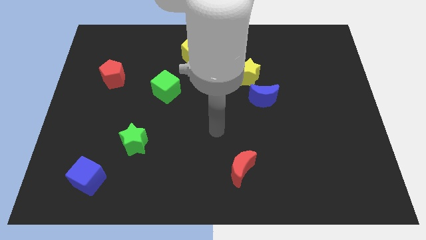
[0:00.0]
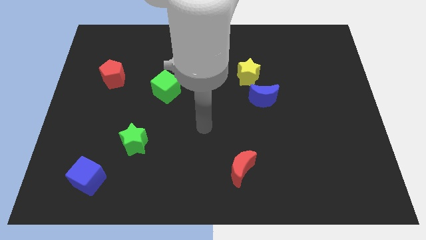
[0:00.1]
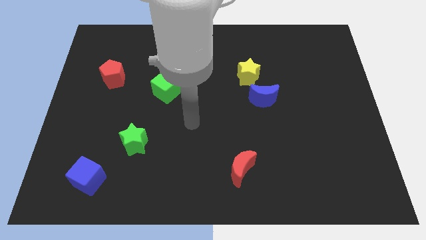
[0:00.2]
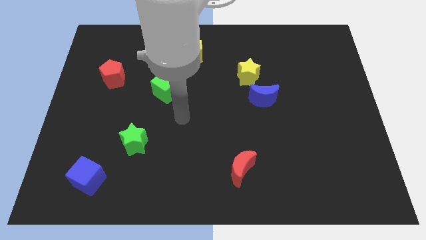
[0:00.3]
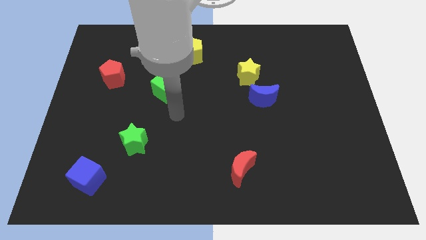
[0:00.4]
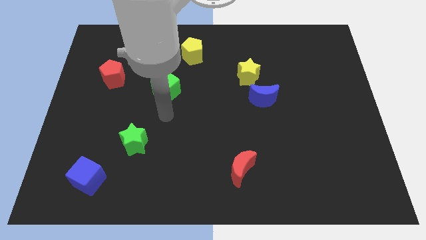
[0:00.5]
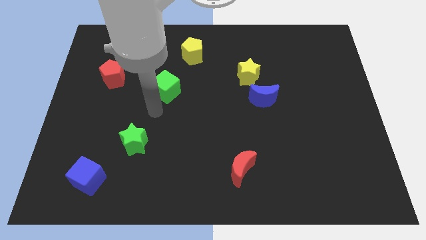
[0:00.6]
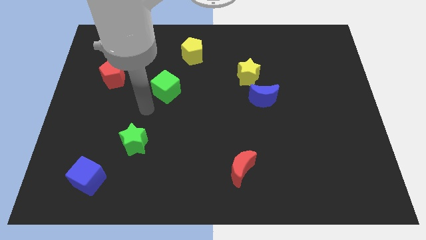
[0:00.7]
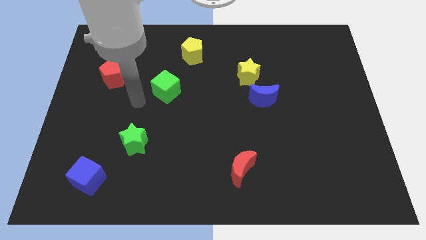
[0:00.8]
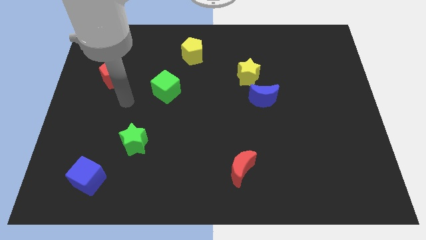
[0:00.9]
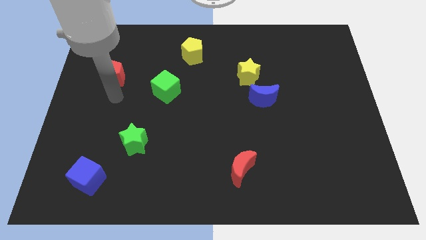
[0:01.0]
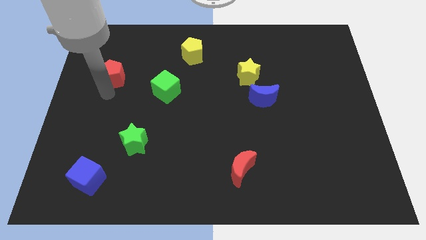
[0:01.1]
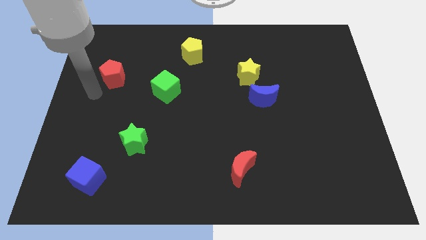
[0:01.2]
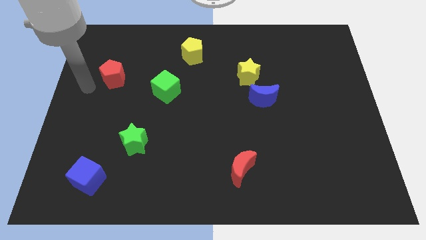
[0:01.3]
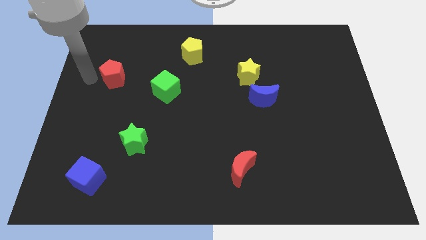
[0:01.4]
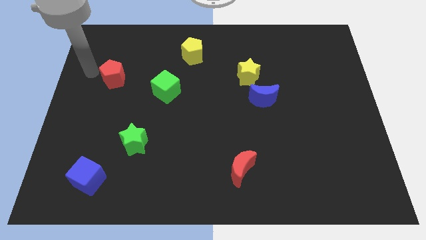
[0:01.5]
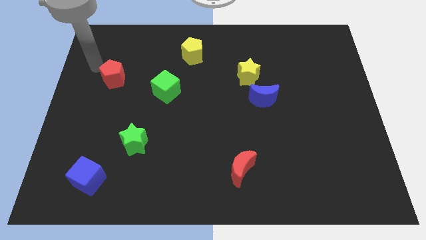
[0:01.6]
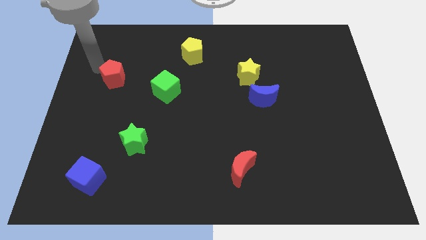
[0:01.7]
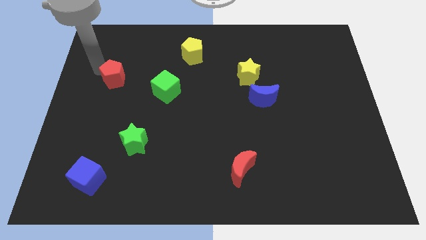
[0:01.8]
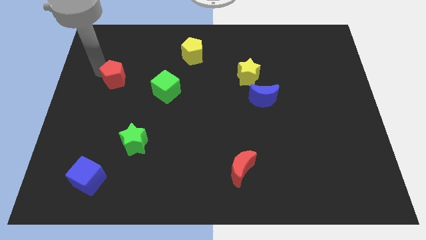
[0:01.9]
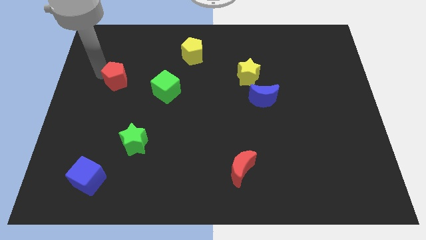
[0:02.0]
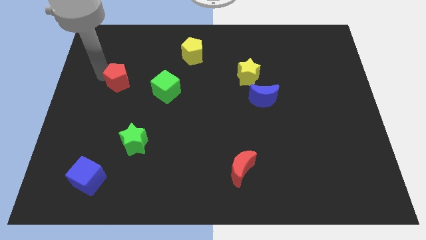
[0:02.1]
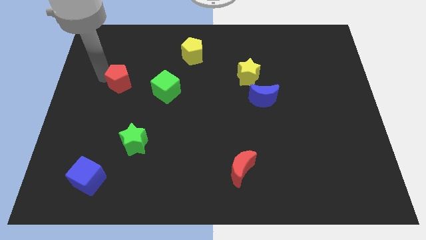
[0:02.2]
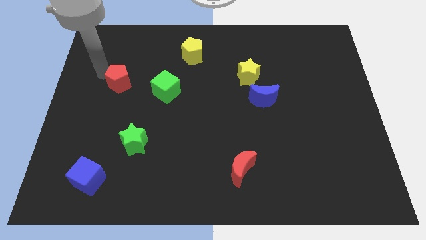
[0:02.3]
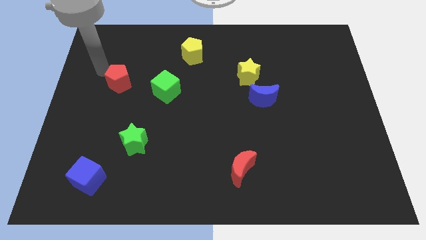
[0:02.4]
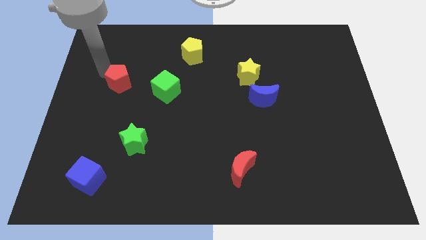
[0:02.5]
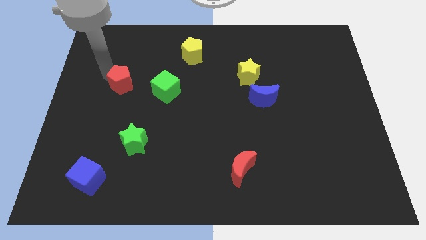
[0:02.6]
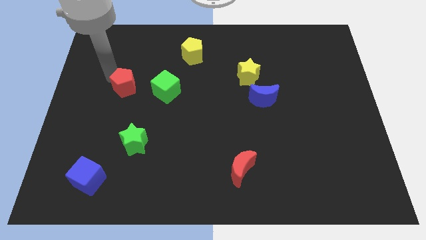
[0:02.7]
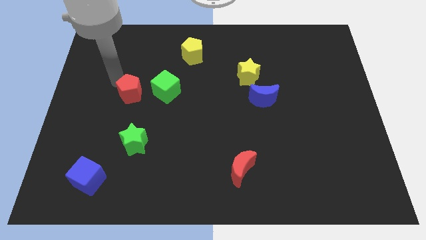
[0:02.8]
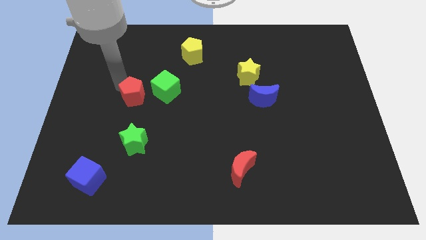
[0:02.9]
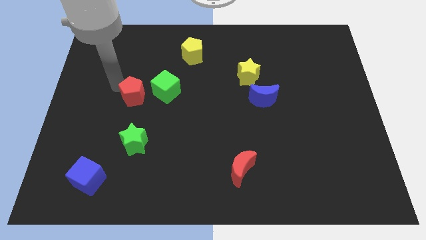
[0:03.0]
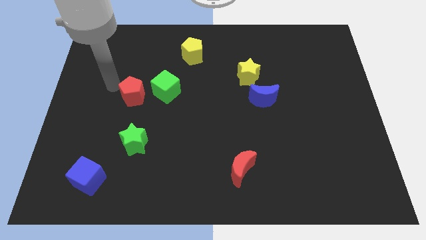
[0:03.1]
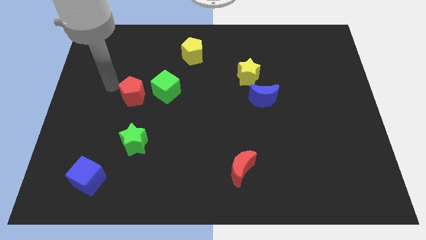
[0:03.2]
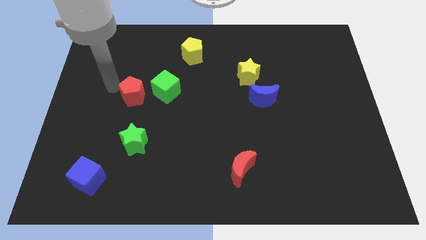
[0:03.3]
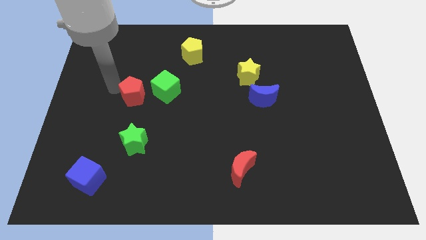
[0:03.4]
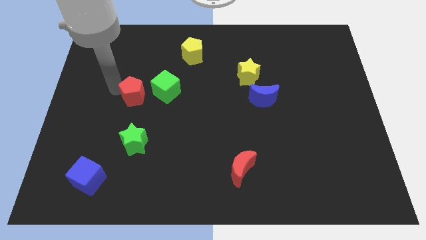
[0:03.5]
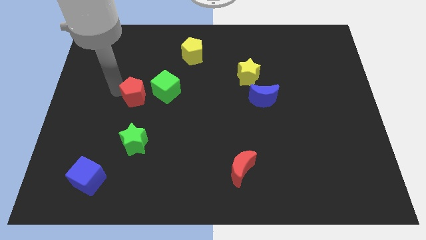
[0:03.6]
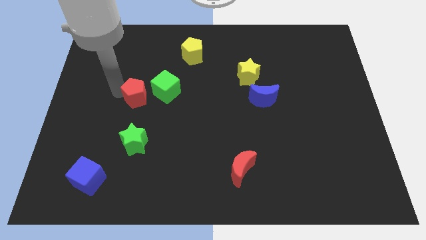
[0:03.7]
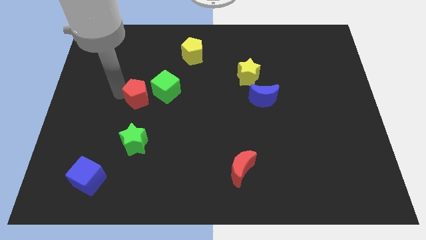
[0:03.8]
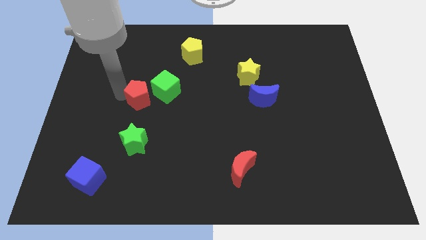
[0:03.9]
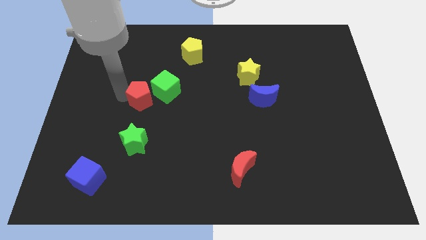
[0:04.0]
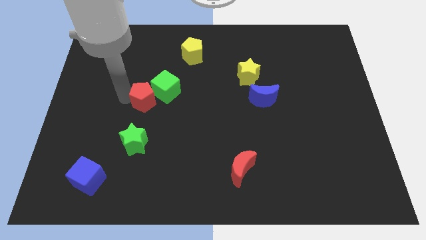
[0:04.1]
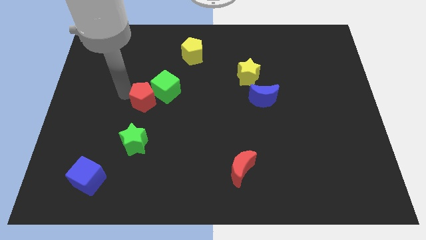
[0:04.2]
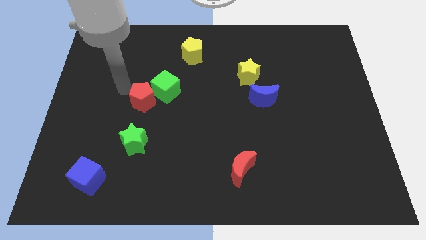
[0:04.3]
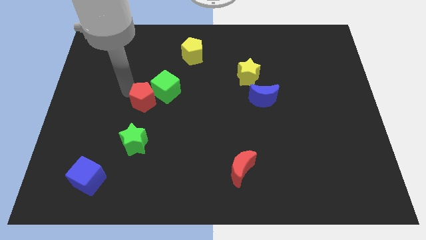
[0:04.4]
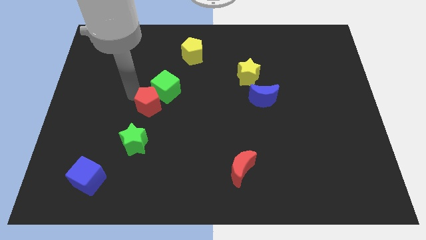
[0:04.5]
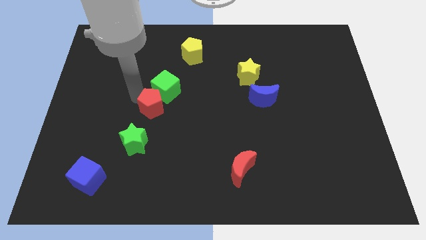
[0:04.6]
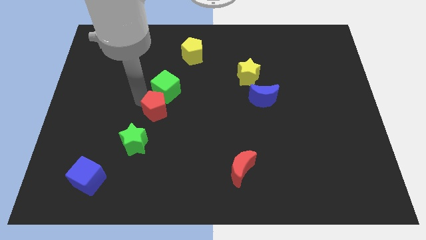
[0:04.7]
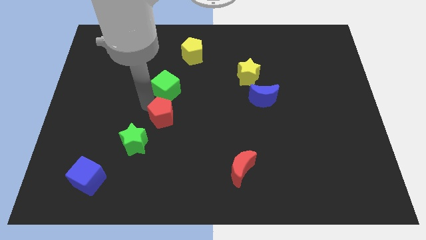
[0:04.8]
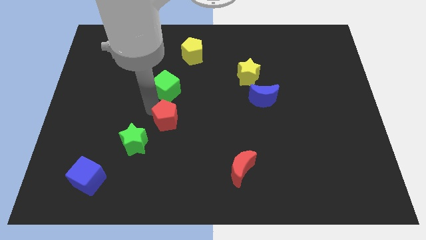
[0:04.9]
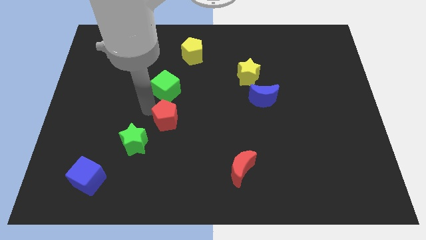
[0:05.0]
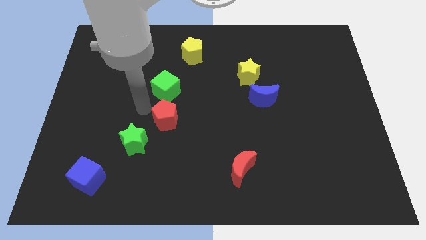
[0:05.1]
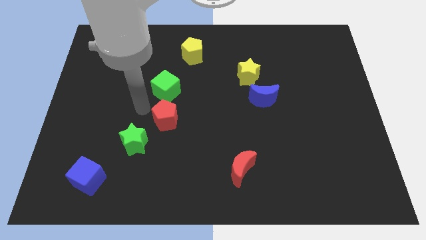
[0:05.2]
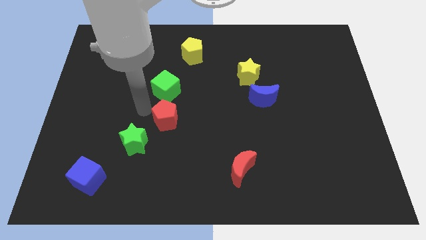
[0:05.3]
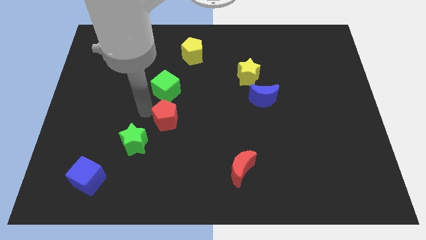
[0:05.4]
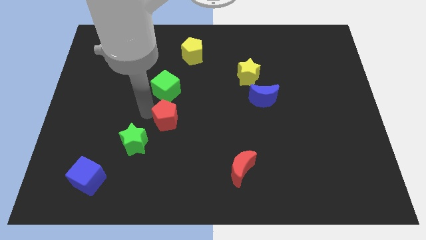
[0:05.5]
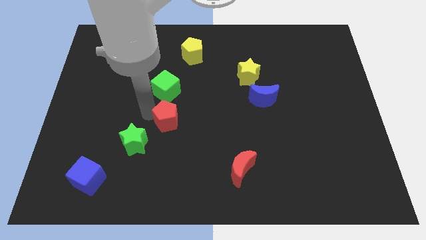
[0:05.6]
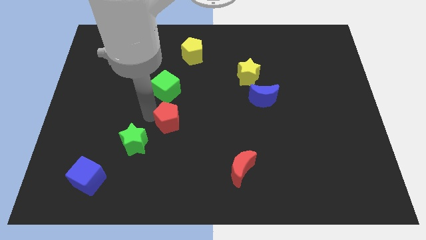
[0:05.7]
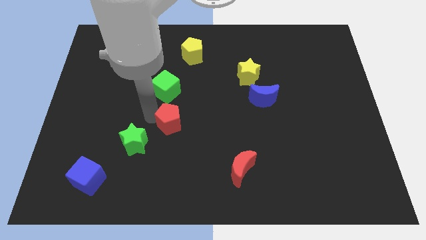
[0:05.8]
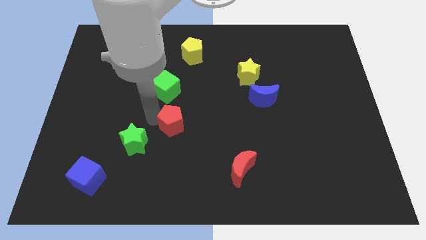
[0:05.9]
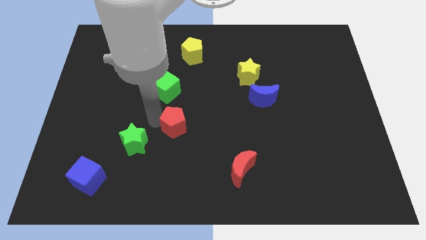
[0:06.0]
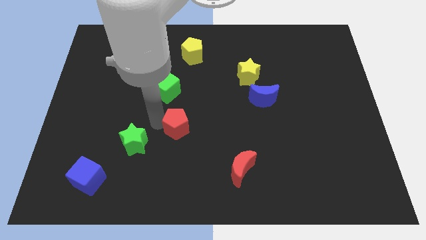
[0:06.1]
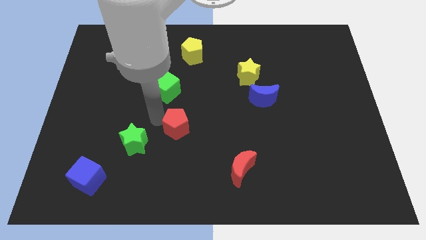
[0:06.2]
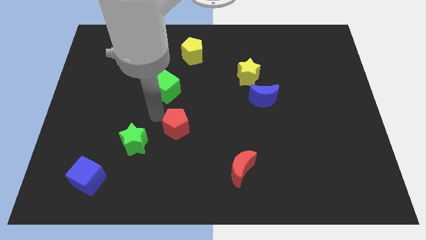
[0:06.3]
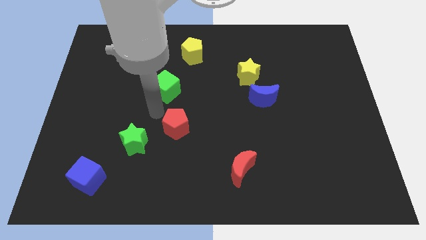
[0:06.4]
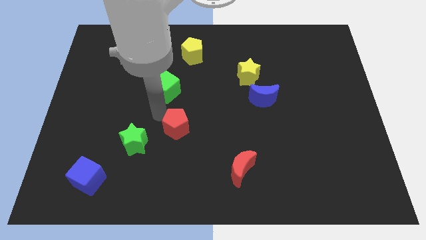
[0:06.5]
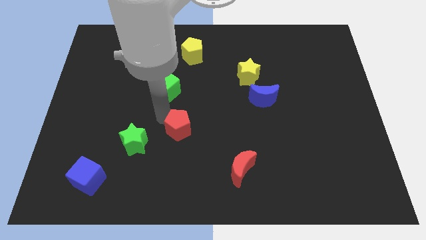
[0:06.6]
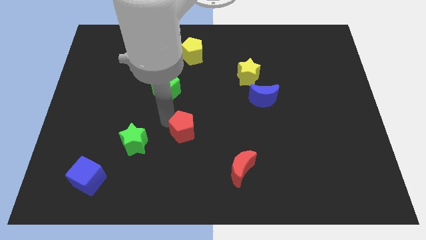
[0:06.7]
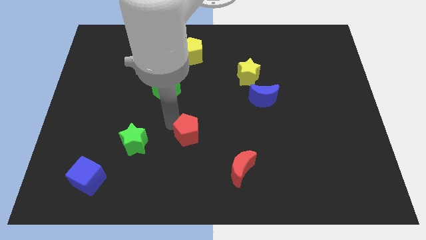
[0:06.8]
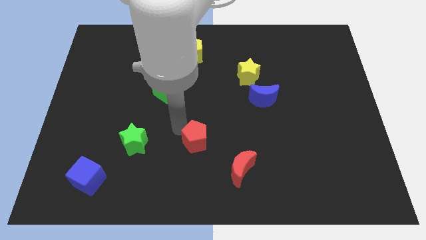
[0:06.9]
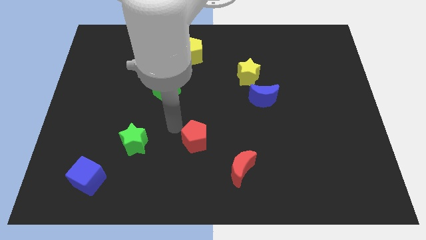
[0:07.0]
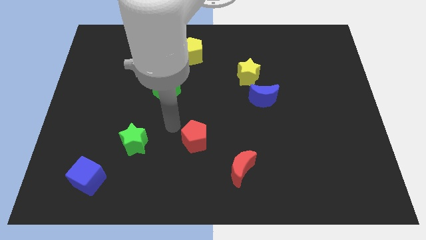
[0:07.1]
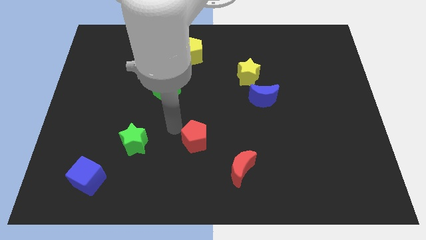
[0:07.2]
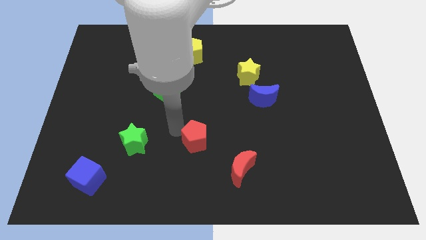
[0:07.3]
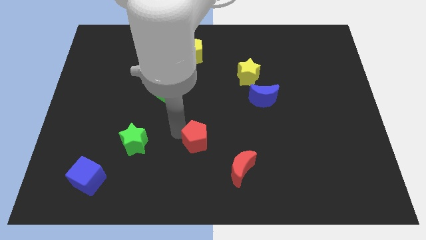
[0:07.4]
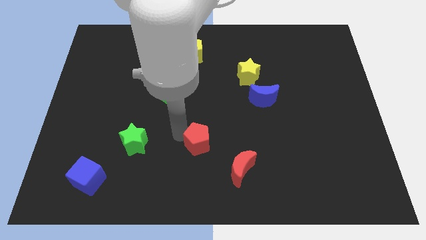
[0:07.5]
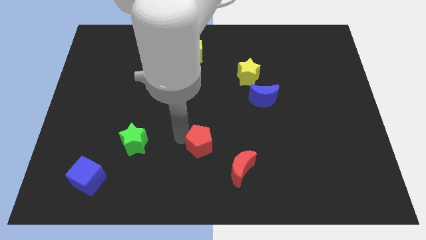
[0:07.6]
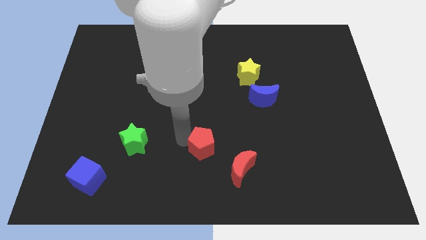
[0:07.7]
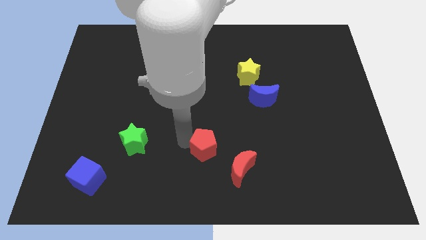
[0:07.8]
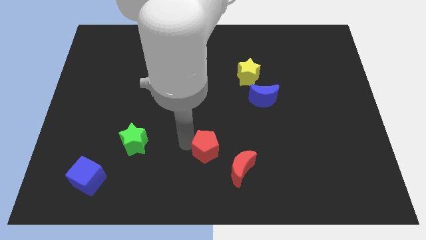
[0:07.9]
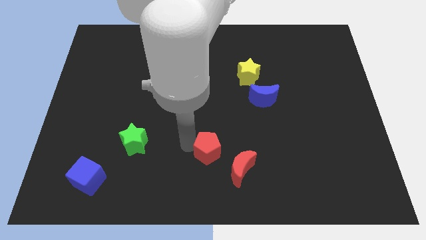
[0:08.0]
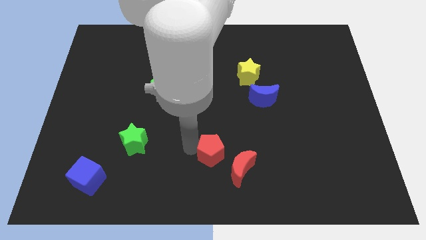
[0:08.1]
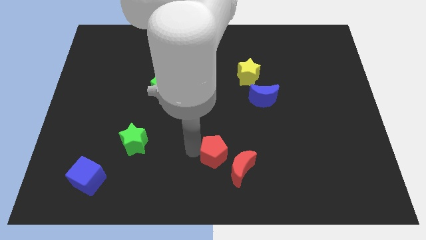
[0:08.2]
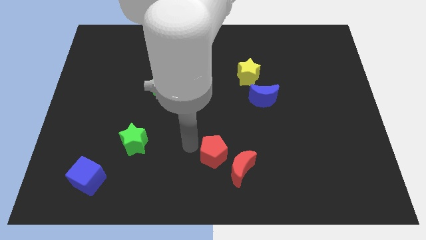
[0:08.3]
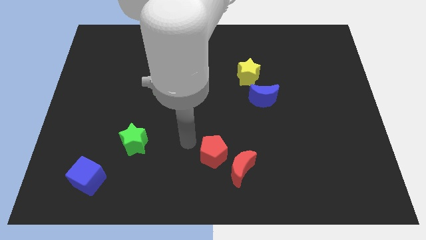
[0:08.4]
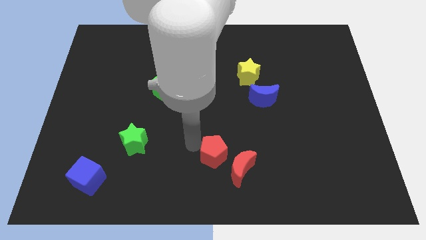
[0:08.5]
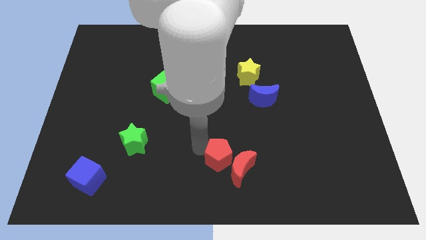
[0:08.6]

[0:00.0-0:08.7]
put the red pentagon next to the red moon
